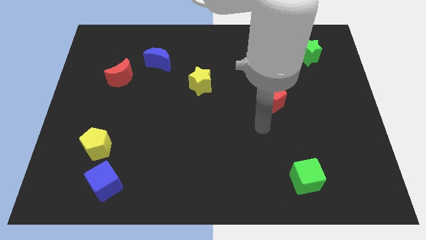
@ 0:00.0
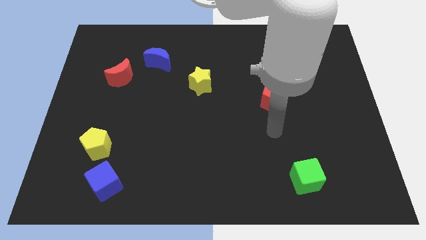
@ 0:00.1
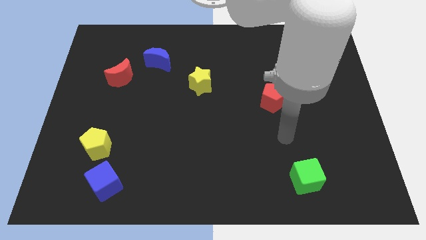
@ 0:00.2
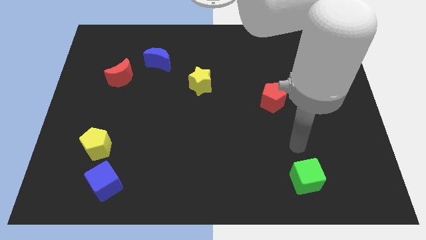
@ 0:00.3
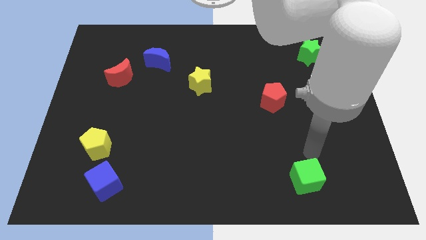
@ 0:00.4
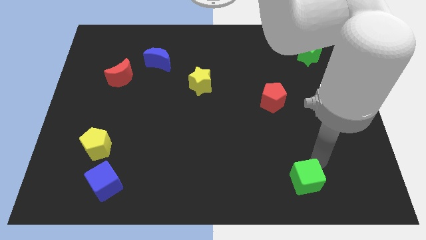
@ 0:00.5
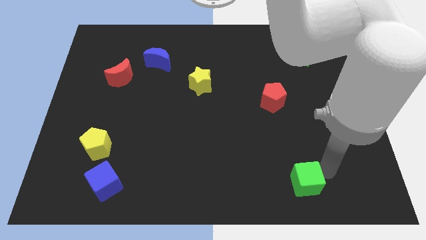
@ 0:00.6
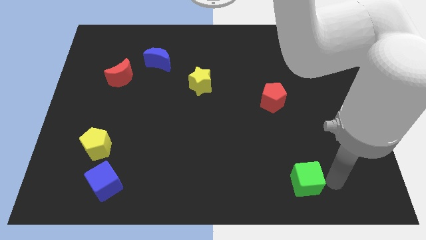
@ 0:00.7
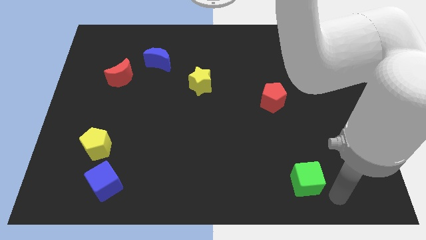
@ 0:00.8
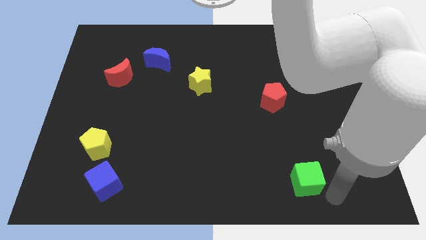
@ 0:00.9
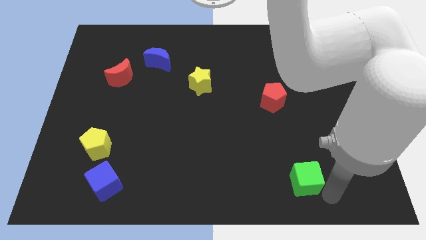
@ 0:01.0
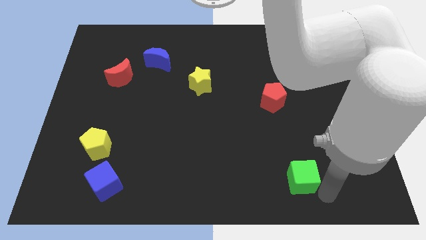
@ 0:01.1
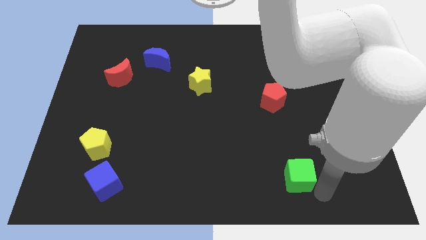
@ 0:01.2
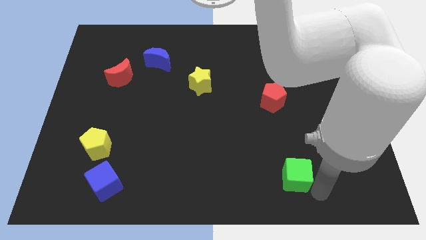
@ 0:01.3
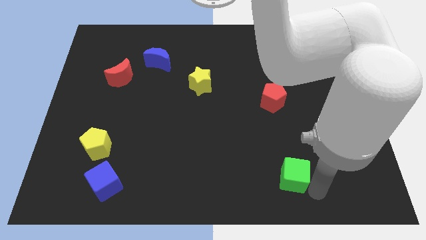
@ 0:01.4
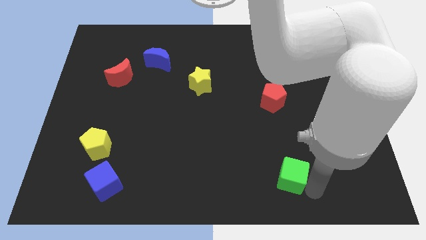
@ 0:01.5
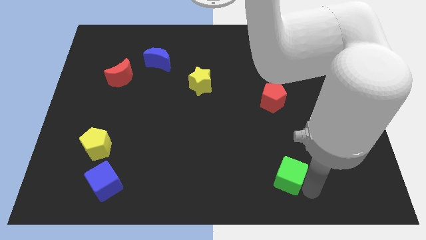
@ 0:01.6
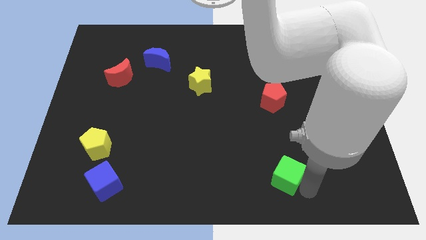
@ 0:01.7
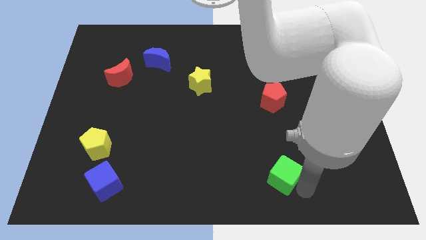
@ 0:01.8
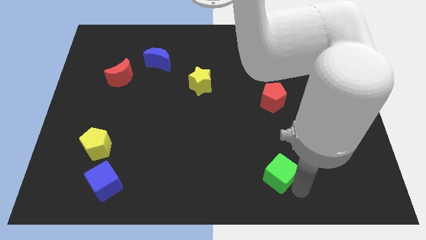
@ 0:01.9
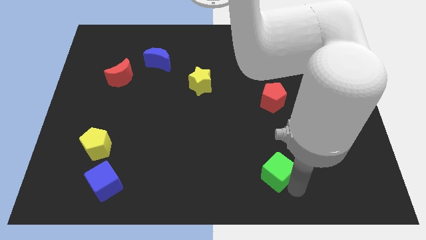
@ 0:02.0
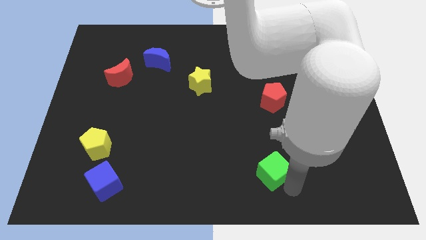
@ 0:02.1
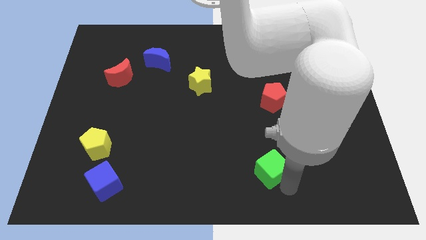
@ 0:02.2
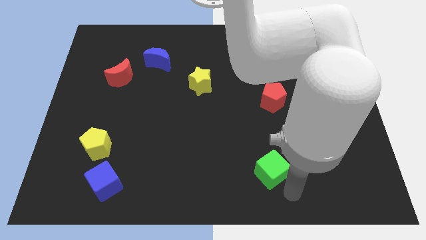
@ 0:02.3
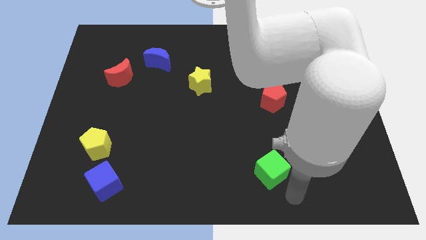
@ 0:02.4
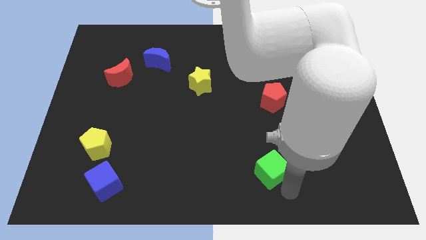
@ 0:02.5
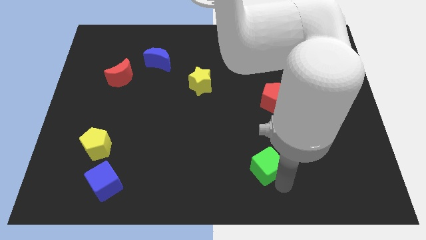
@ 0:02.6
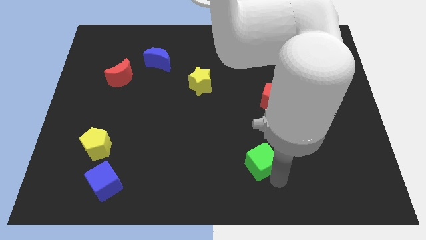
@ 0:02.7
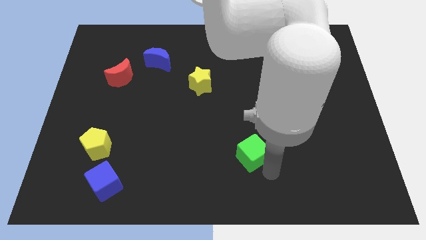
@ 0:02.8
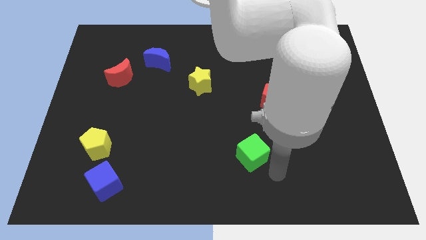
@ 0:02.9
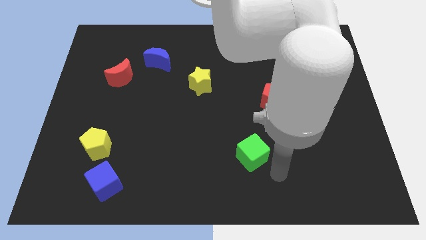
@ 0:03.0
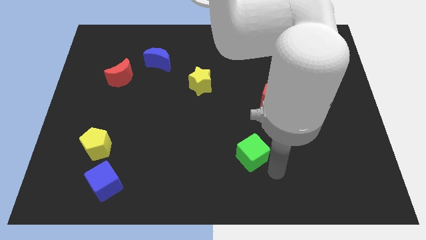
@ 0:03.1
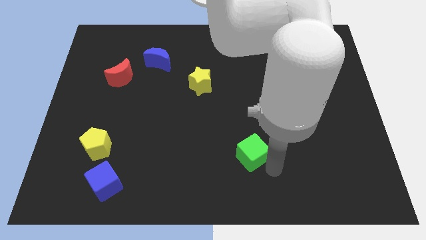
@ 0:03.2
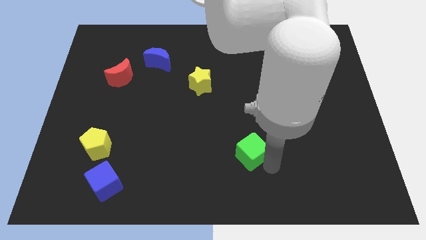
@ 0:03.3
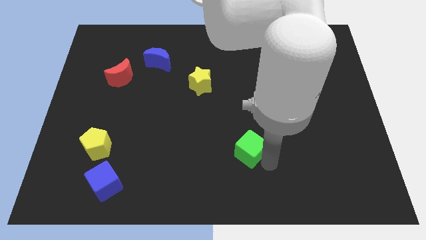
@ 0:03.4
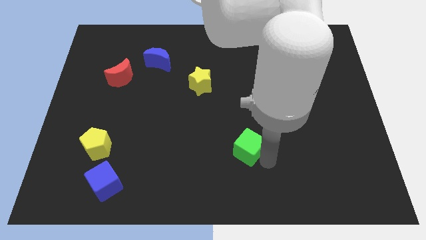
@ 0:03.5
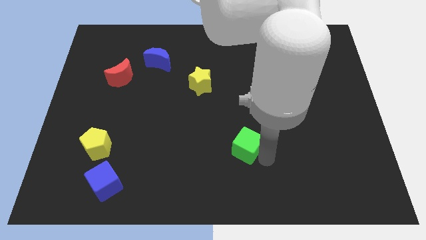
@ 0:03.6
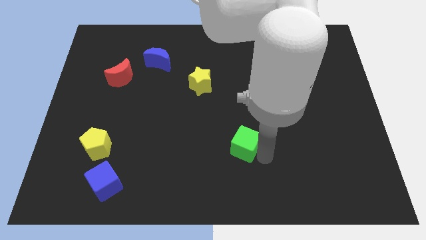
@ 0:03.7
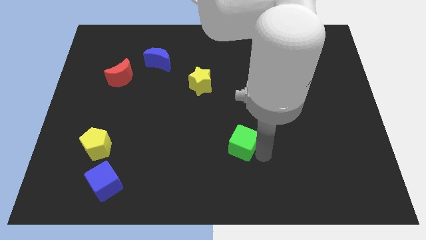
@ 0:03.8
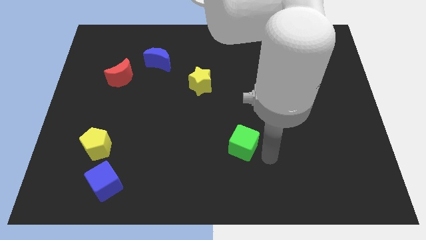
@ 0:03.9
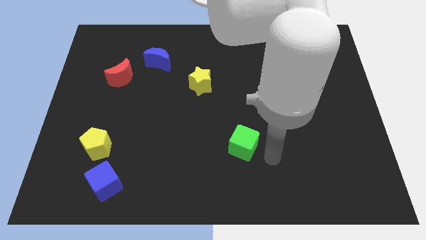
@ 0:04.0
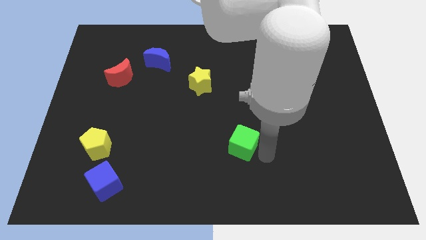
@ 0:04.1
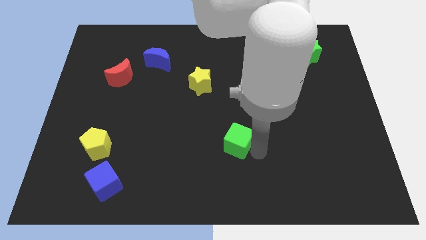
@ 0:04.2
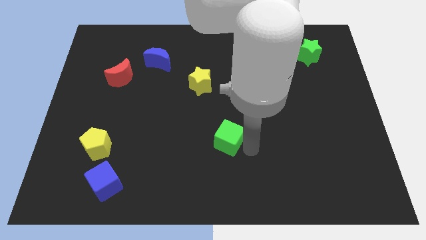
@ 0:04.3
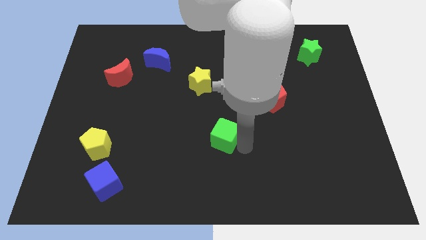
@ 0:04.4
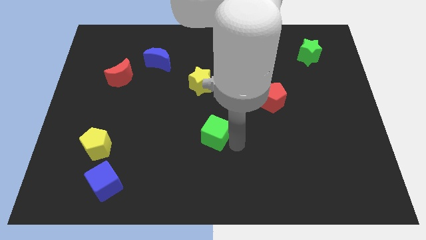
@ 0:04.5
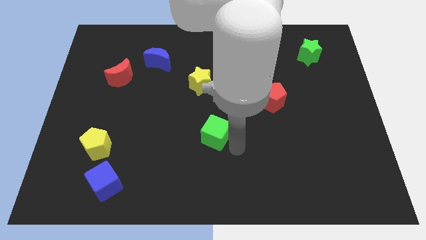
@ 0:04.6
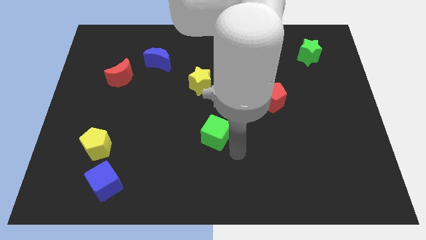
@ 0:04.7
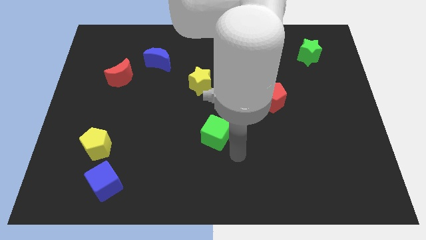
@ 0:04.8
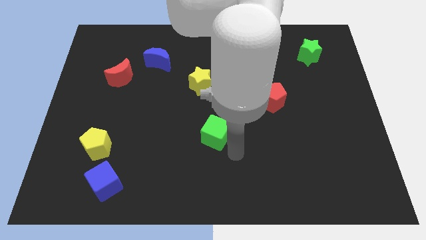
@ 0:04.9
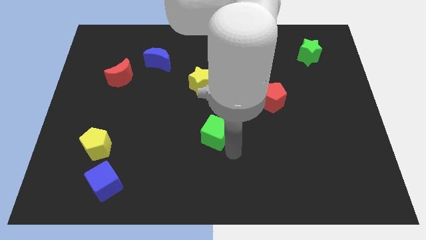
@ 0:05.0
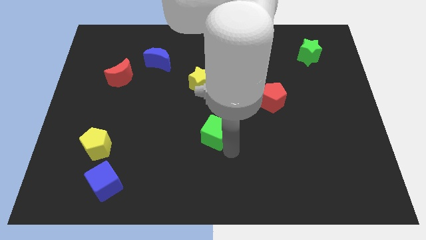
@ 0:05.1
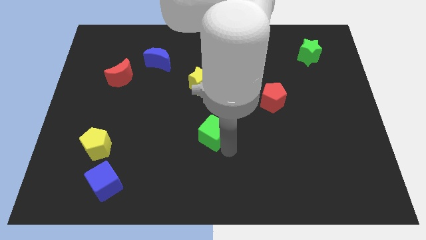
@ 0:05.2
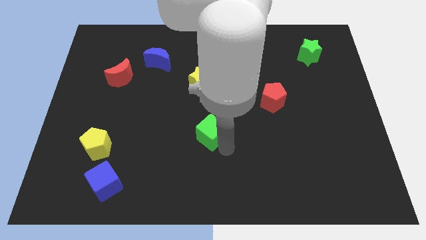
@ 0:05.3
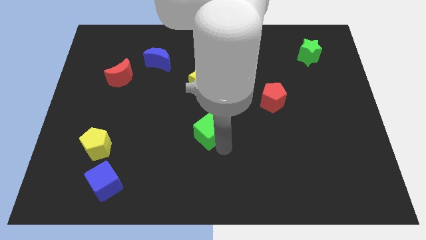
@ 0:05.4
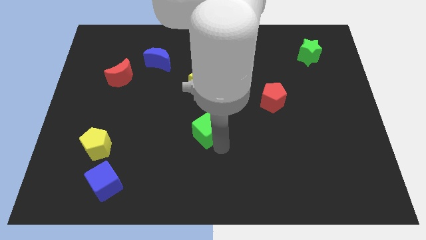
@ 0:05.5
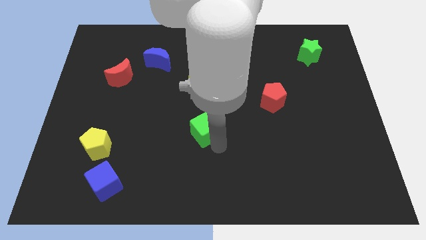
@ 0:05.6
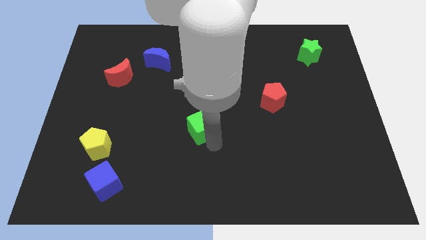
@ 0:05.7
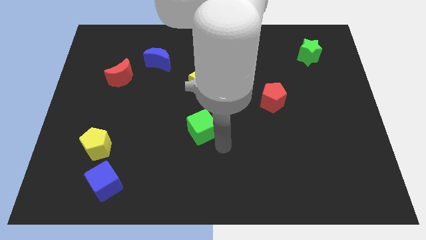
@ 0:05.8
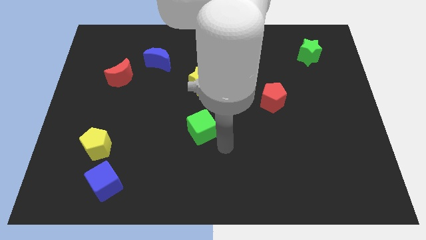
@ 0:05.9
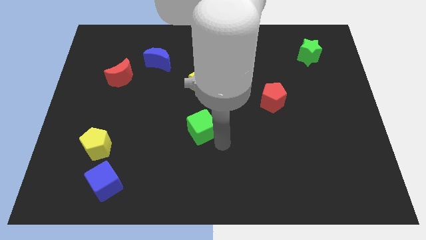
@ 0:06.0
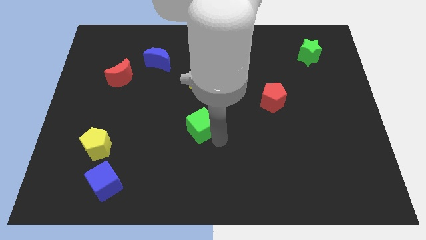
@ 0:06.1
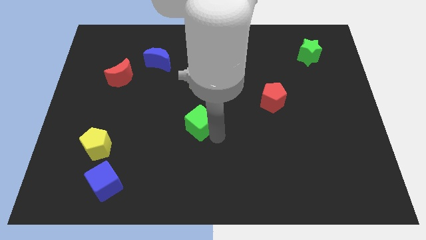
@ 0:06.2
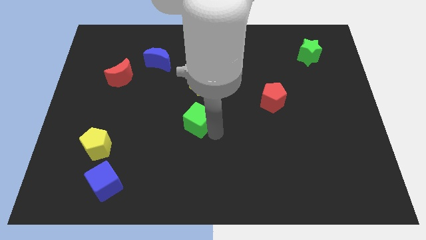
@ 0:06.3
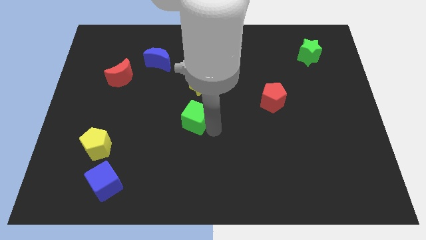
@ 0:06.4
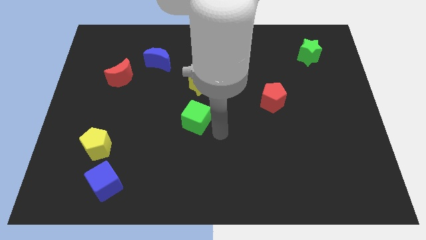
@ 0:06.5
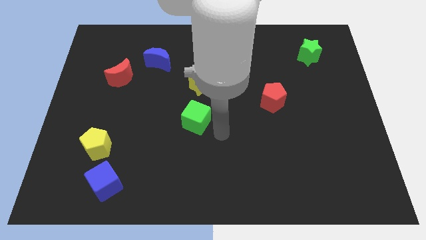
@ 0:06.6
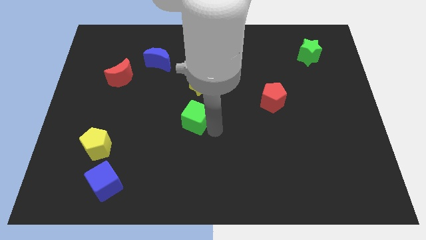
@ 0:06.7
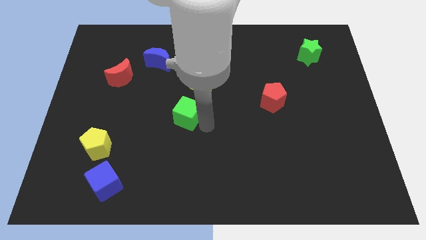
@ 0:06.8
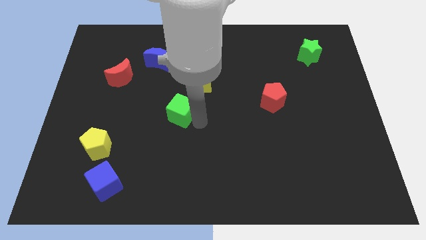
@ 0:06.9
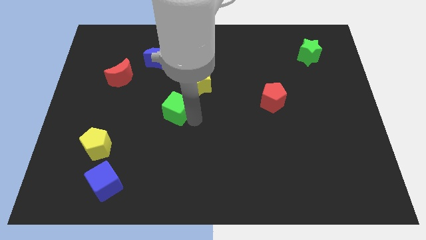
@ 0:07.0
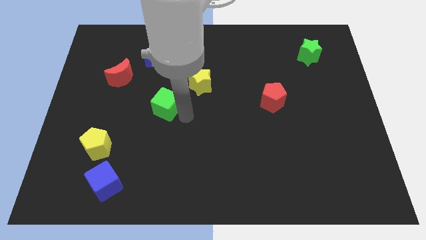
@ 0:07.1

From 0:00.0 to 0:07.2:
put the green cube to the bottom side of the blue moon
